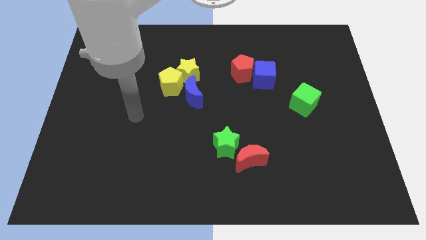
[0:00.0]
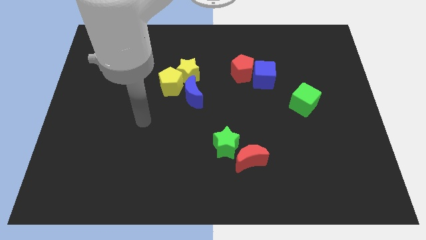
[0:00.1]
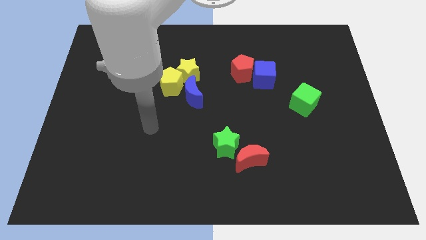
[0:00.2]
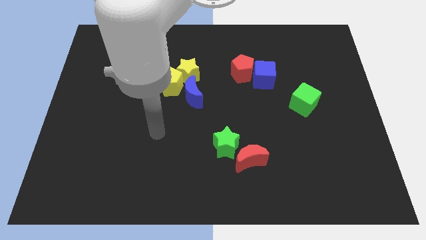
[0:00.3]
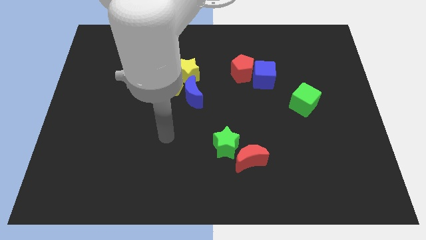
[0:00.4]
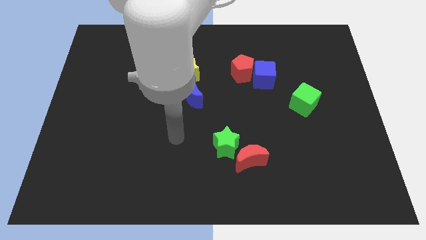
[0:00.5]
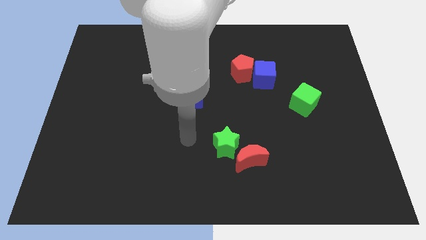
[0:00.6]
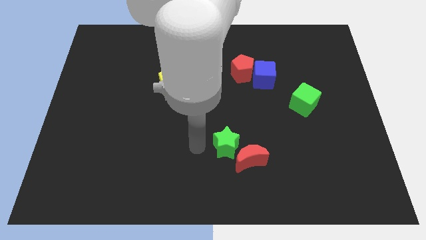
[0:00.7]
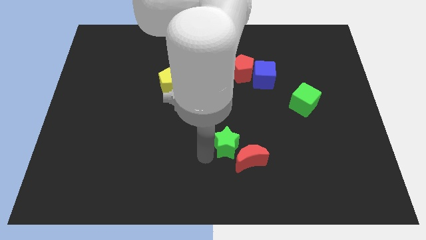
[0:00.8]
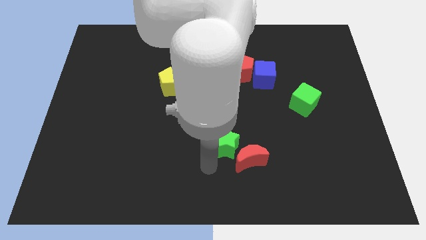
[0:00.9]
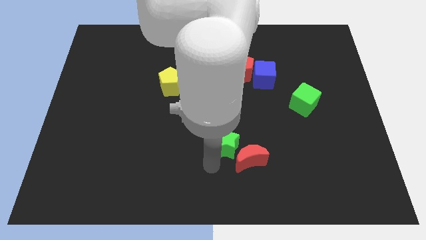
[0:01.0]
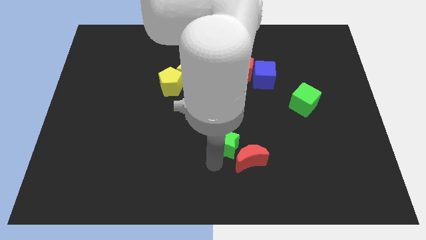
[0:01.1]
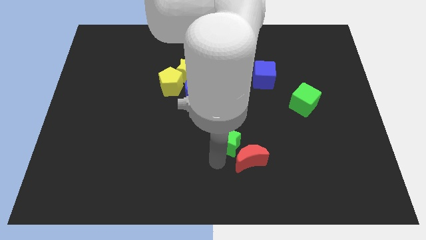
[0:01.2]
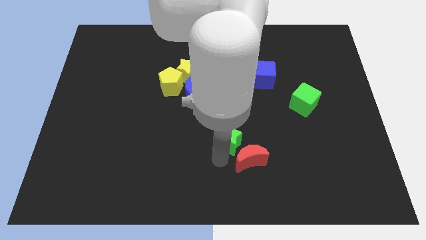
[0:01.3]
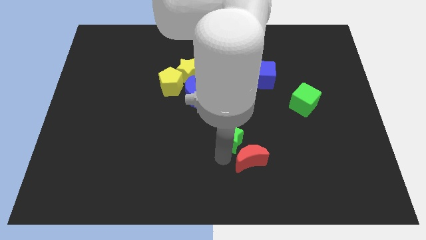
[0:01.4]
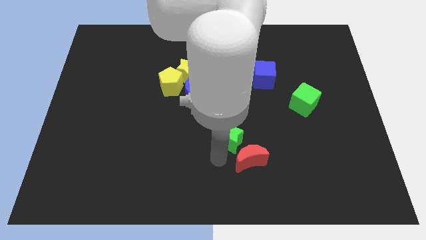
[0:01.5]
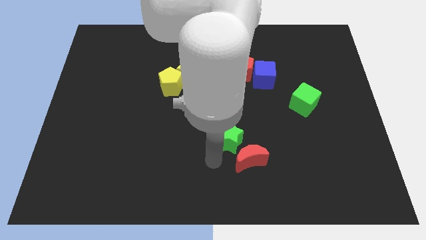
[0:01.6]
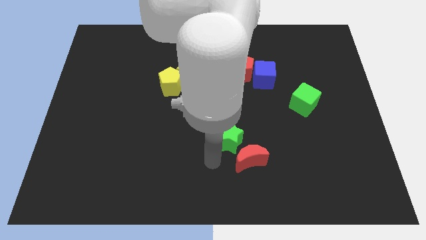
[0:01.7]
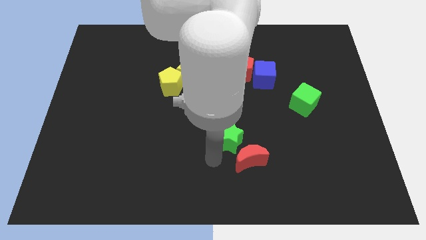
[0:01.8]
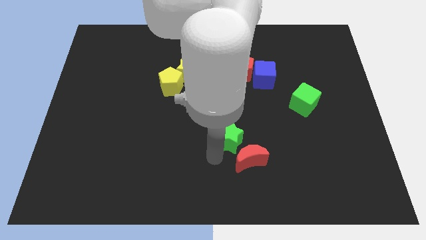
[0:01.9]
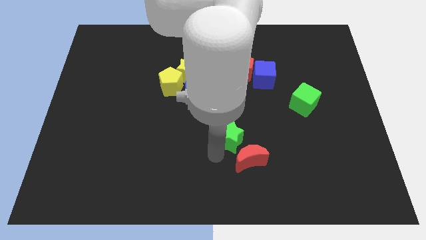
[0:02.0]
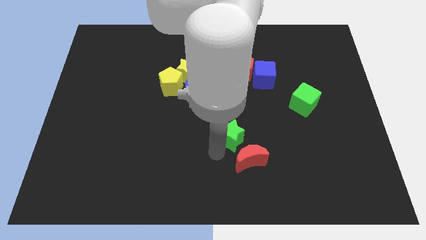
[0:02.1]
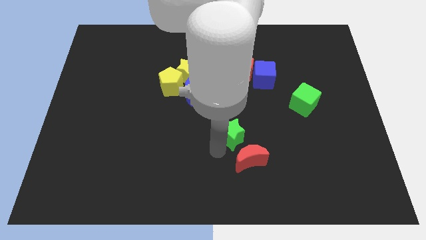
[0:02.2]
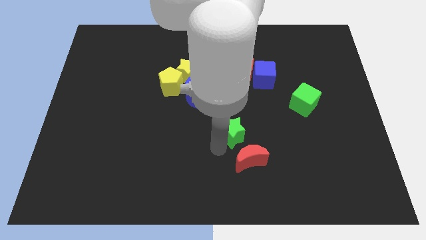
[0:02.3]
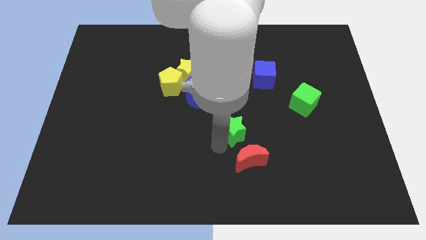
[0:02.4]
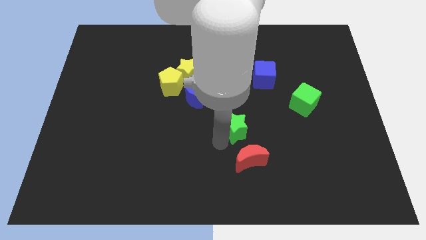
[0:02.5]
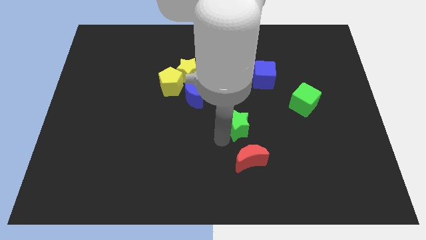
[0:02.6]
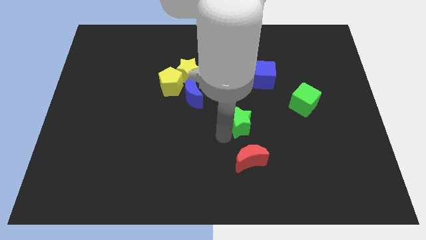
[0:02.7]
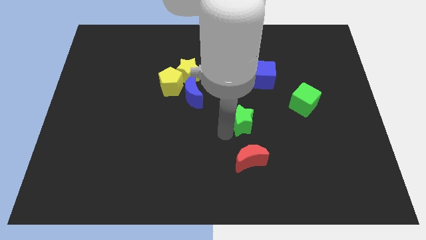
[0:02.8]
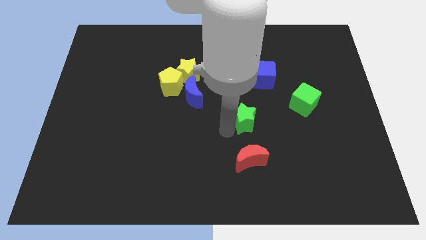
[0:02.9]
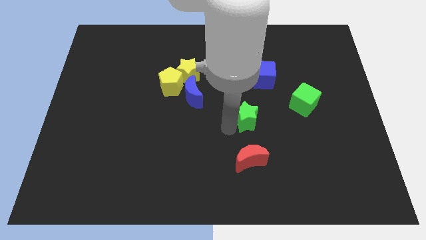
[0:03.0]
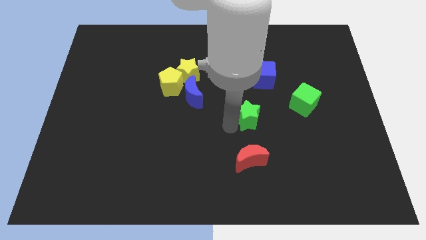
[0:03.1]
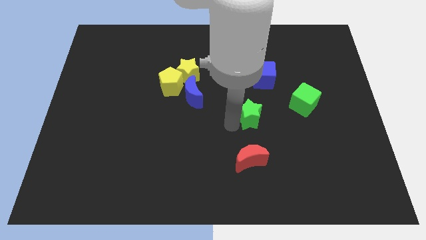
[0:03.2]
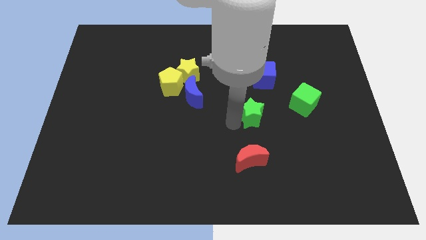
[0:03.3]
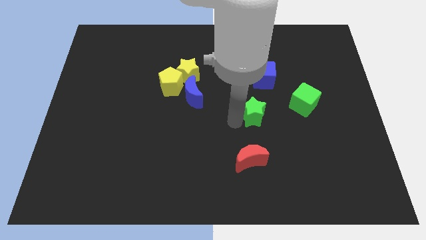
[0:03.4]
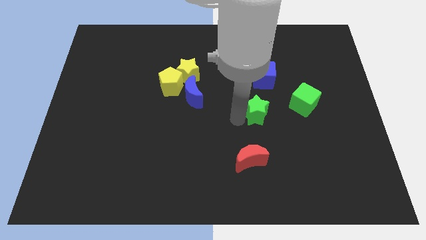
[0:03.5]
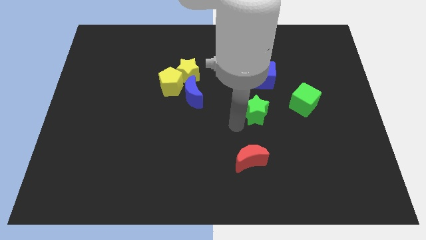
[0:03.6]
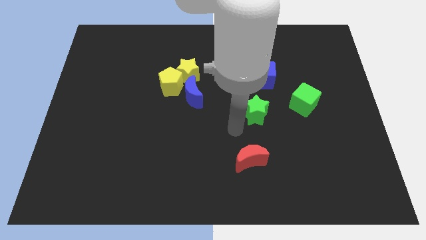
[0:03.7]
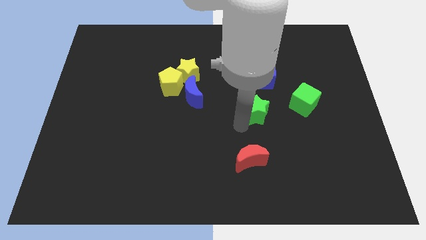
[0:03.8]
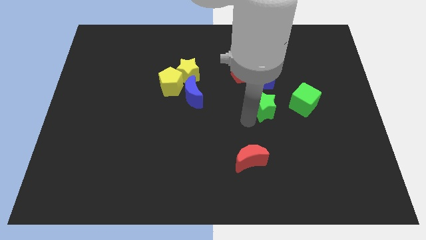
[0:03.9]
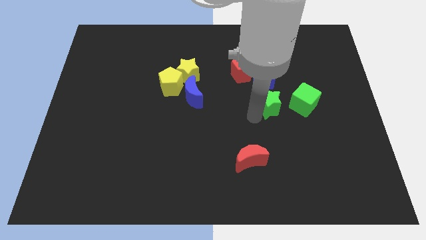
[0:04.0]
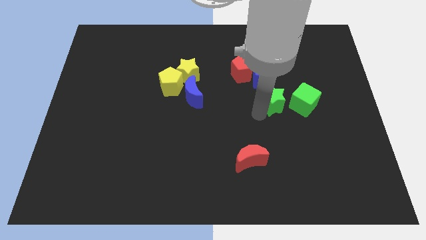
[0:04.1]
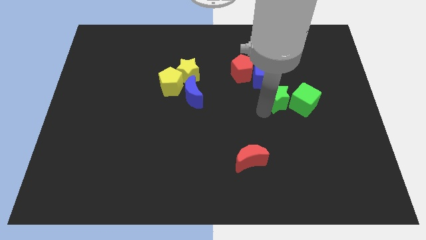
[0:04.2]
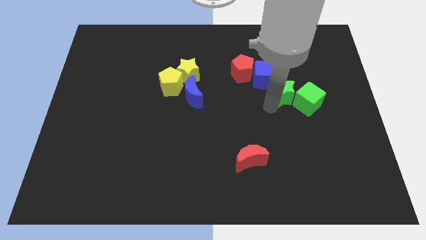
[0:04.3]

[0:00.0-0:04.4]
push the green star diagonally up and to the right

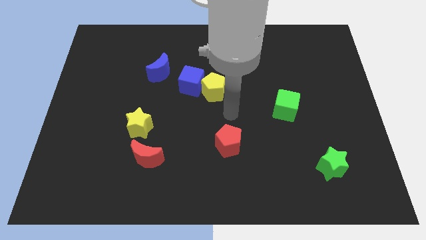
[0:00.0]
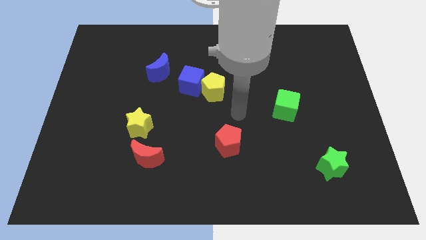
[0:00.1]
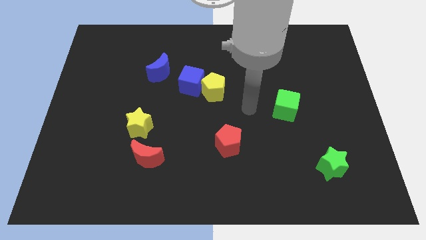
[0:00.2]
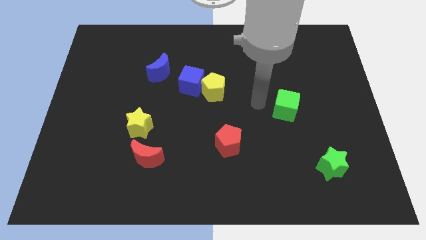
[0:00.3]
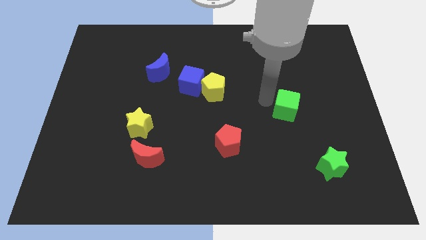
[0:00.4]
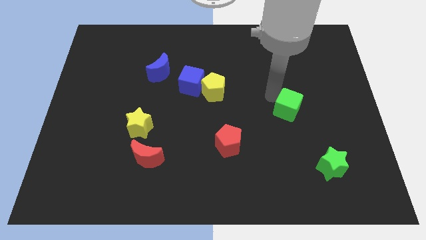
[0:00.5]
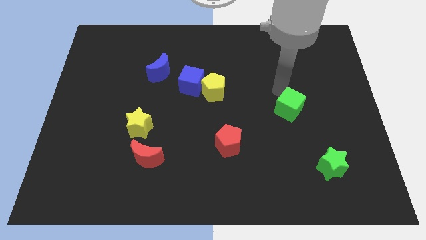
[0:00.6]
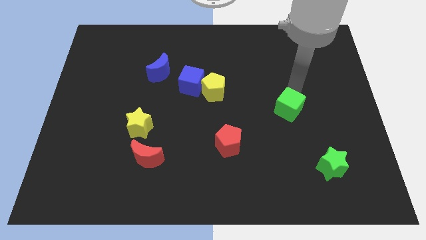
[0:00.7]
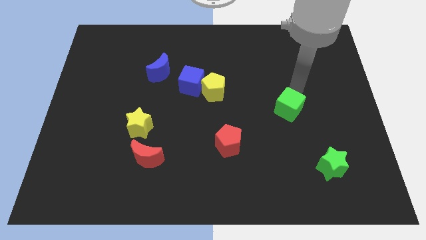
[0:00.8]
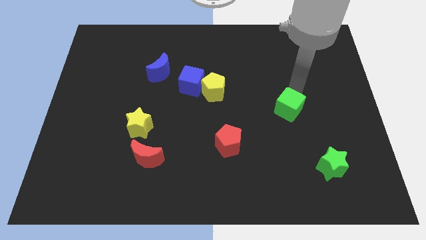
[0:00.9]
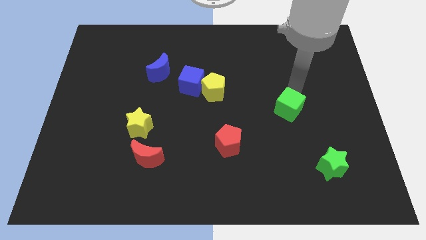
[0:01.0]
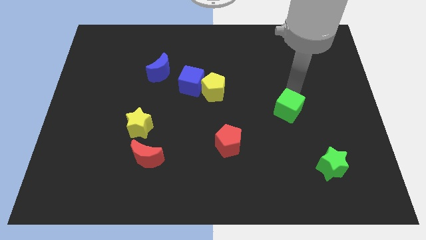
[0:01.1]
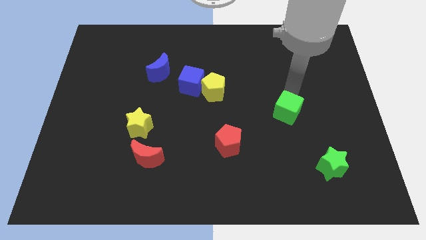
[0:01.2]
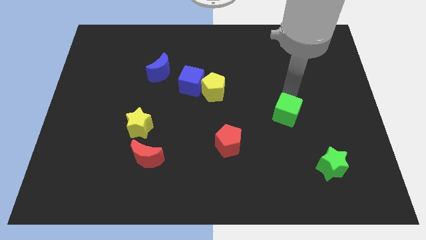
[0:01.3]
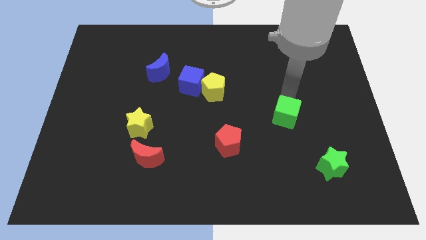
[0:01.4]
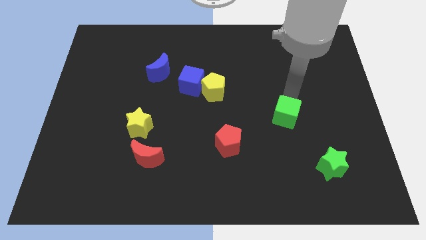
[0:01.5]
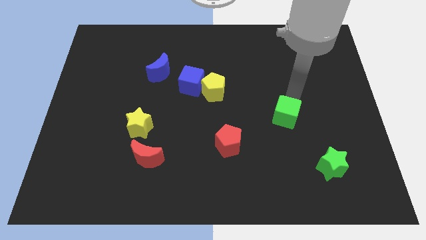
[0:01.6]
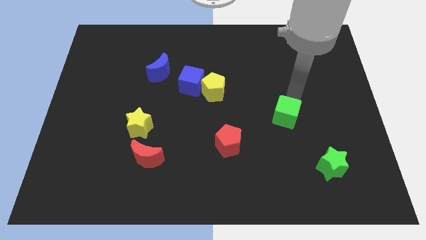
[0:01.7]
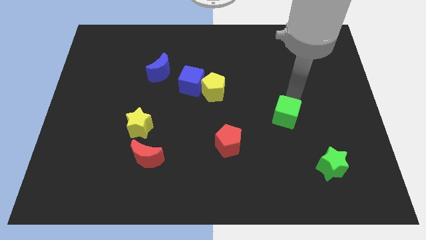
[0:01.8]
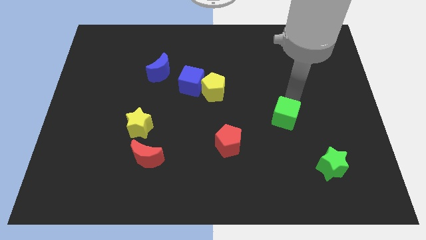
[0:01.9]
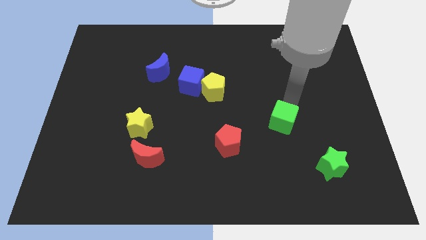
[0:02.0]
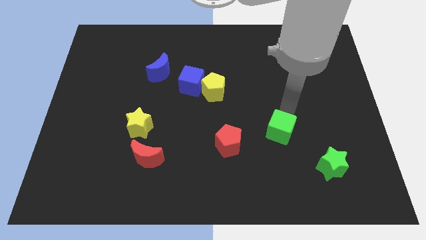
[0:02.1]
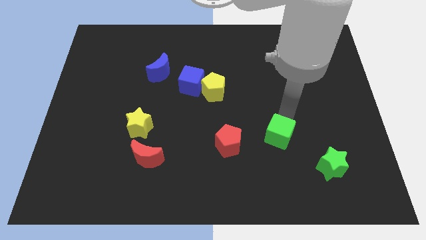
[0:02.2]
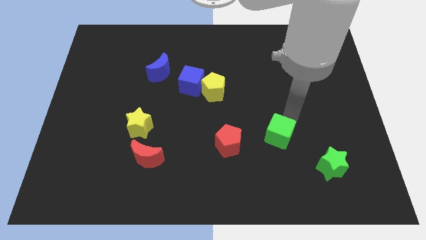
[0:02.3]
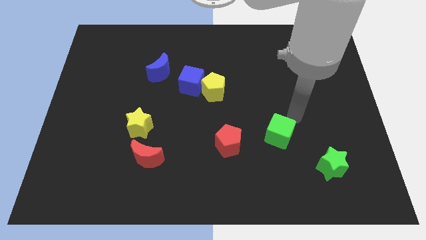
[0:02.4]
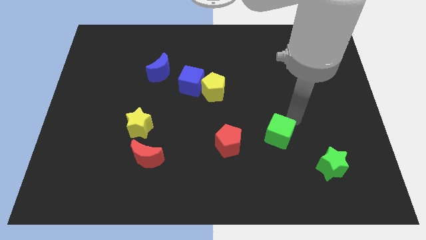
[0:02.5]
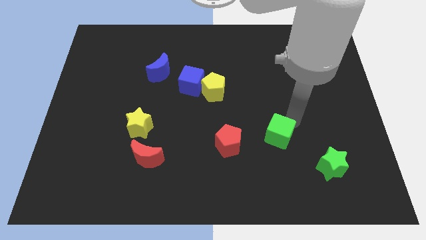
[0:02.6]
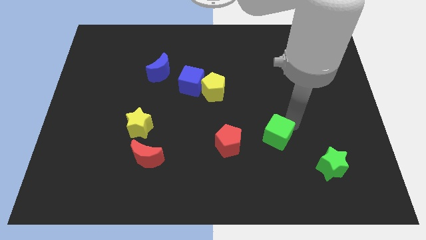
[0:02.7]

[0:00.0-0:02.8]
slide the green cube downwards and left diagonally a little bit

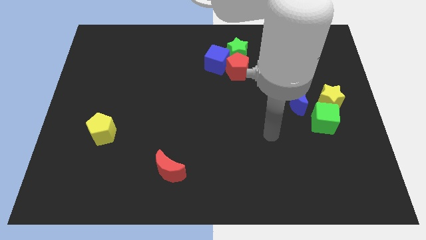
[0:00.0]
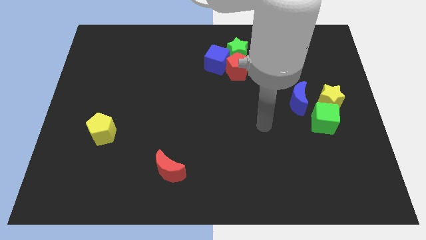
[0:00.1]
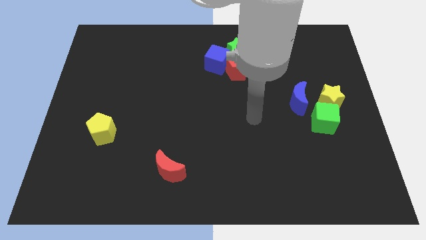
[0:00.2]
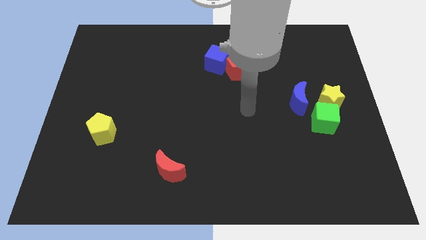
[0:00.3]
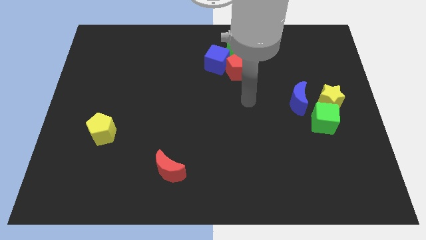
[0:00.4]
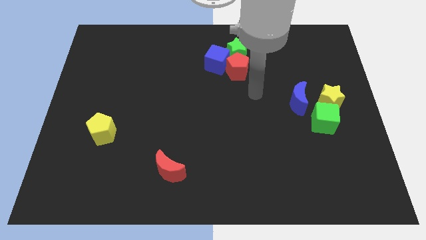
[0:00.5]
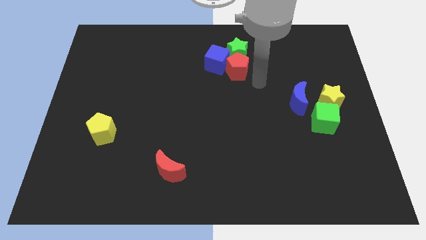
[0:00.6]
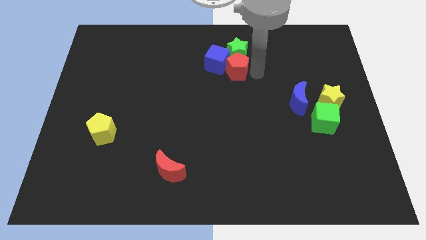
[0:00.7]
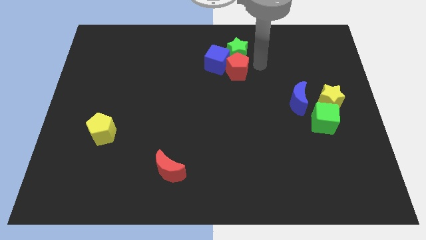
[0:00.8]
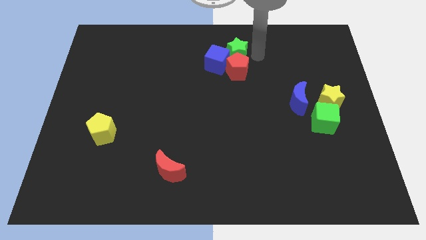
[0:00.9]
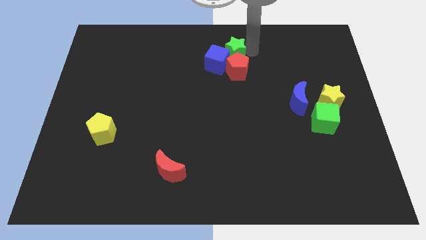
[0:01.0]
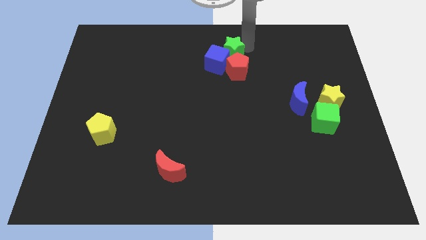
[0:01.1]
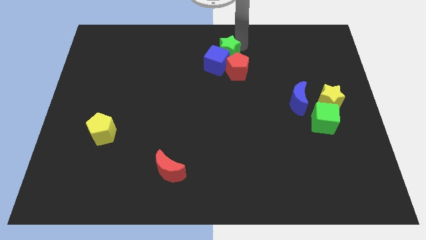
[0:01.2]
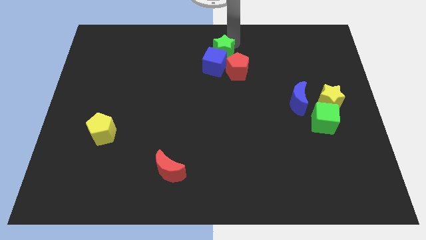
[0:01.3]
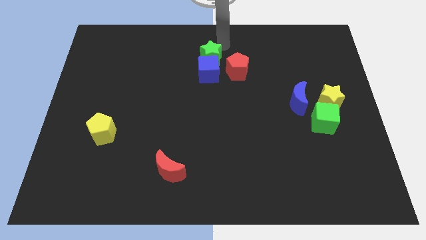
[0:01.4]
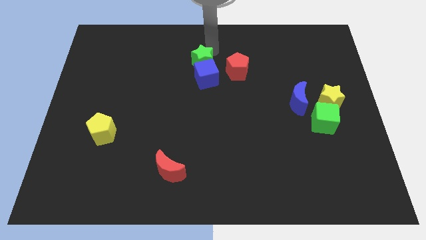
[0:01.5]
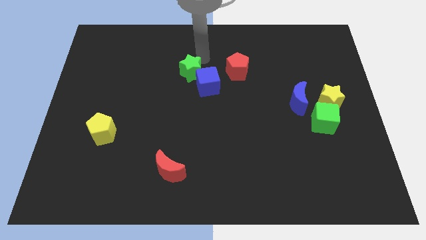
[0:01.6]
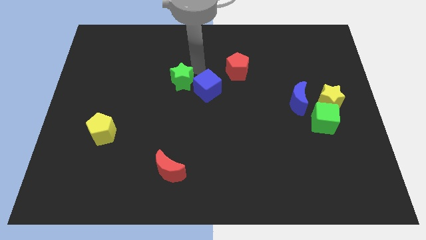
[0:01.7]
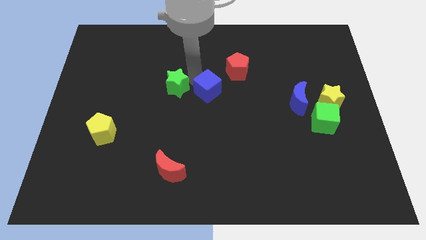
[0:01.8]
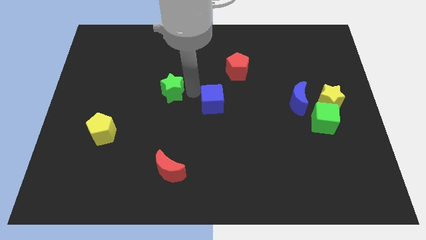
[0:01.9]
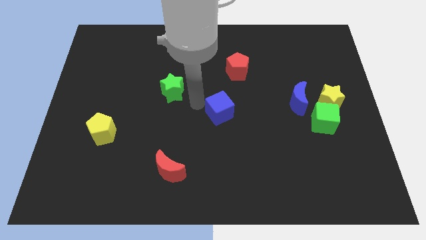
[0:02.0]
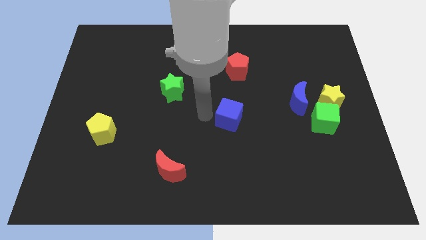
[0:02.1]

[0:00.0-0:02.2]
slightly move the blue cube diagonally downwards and to the right
